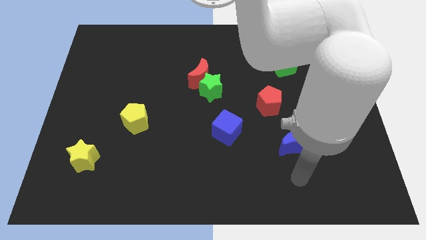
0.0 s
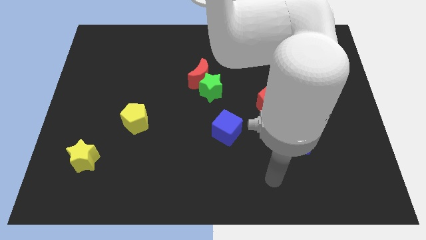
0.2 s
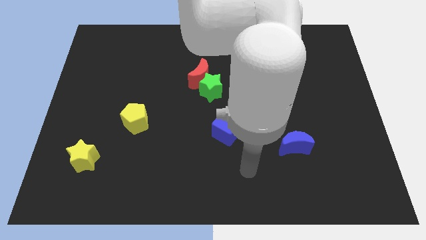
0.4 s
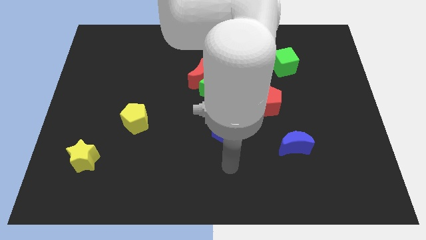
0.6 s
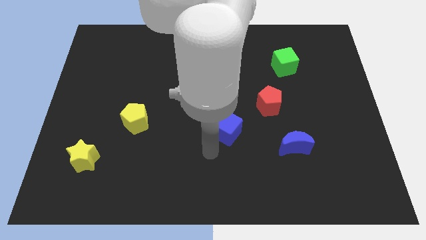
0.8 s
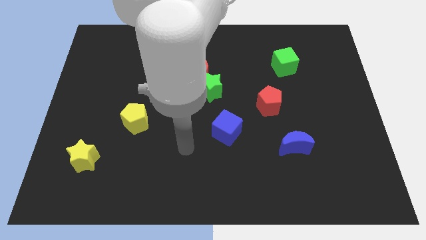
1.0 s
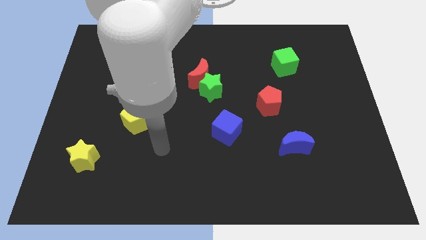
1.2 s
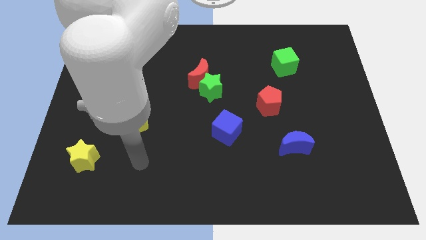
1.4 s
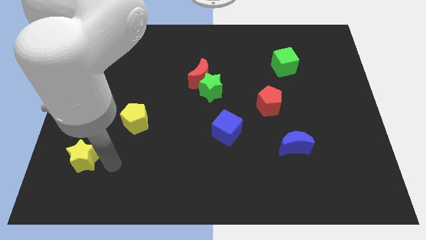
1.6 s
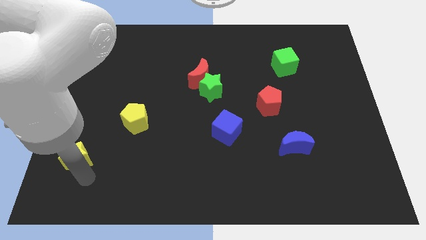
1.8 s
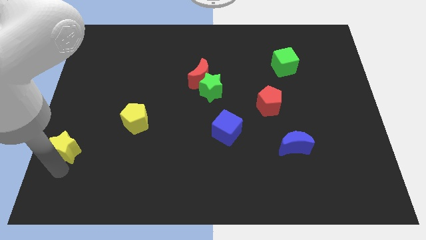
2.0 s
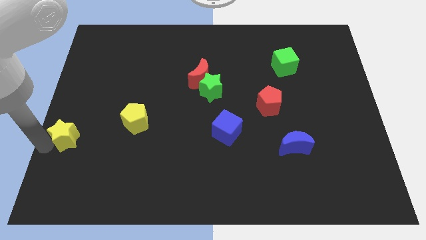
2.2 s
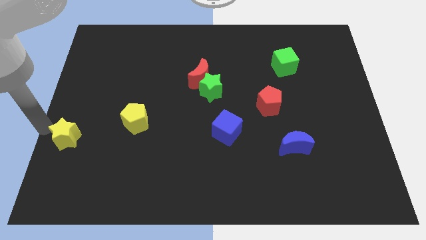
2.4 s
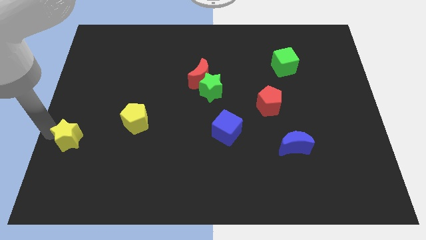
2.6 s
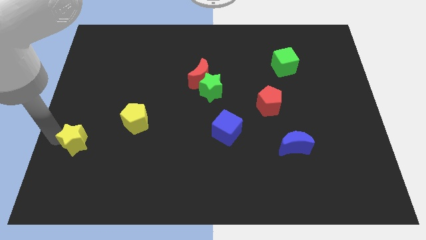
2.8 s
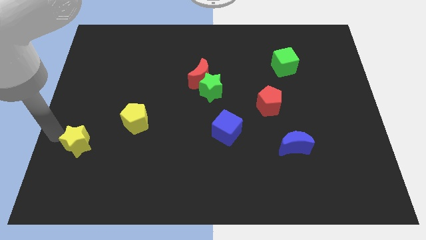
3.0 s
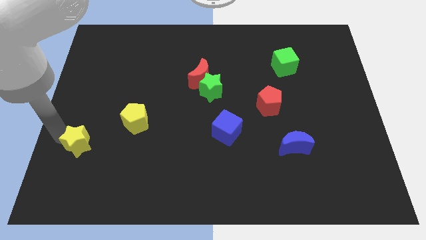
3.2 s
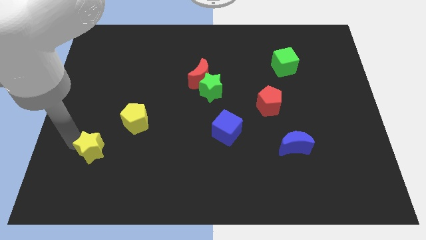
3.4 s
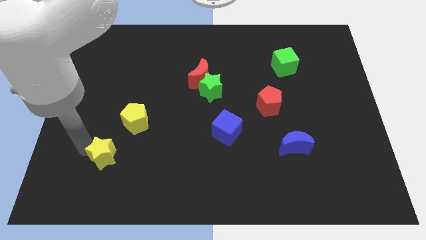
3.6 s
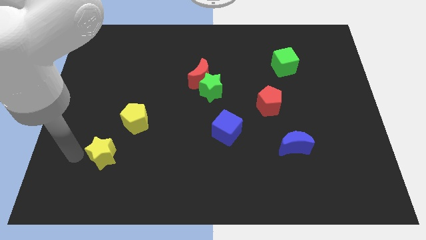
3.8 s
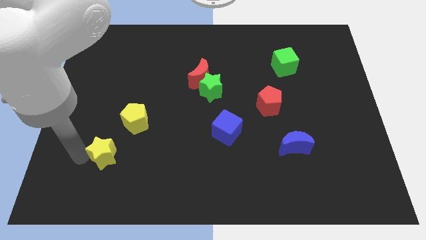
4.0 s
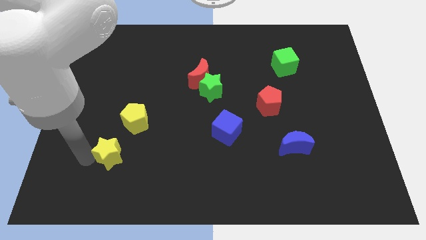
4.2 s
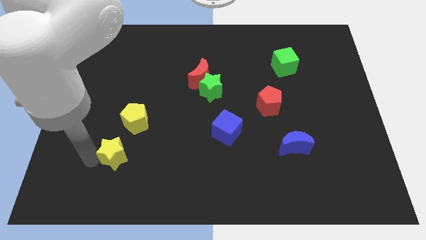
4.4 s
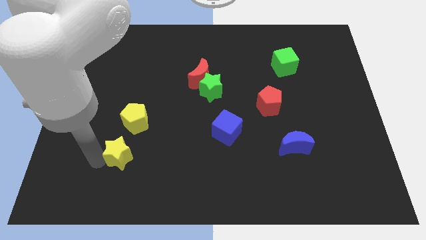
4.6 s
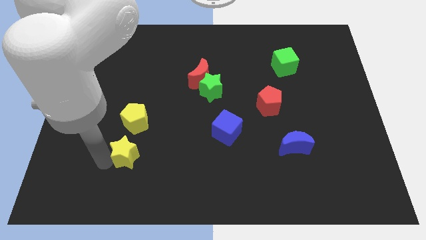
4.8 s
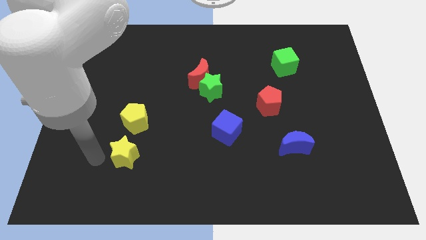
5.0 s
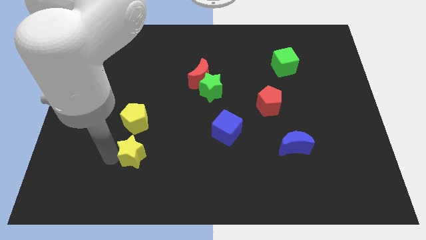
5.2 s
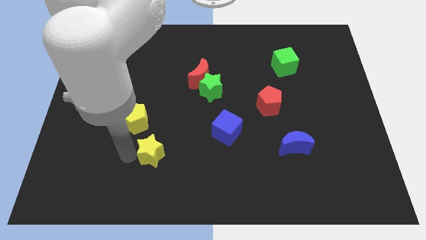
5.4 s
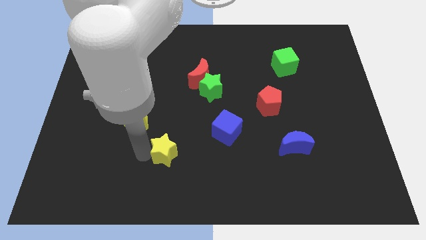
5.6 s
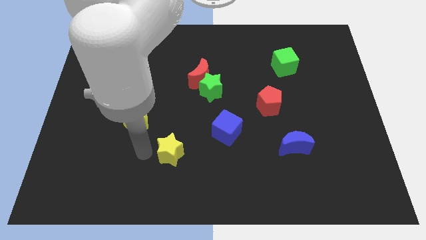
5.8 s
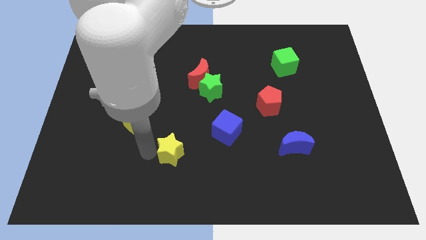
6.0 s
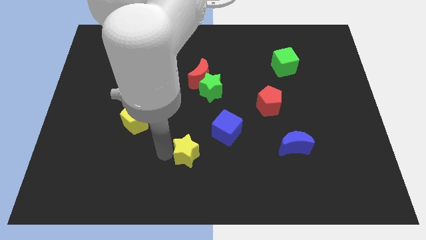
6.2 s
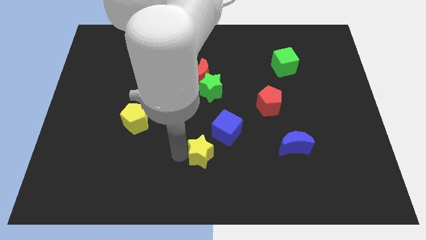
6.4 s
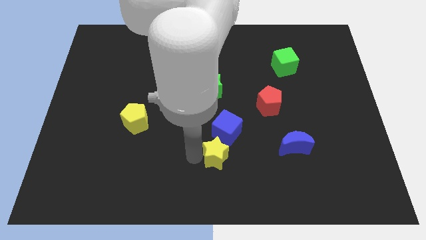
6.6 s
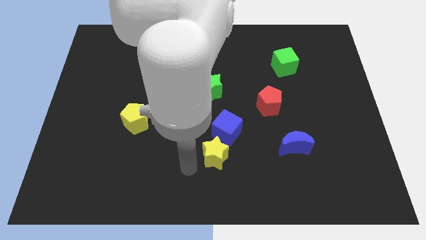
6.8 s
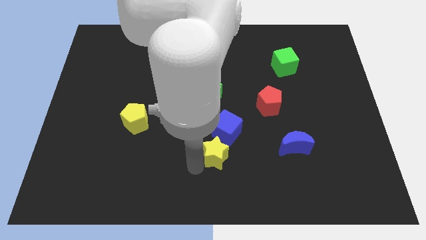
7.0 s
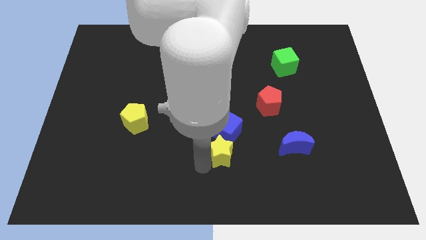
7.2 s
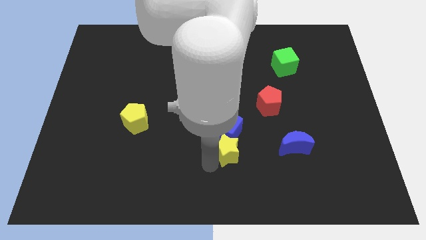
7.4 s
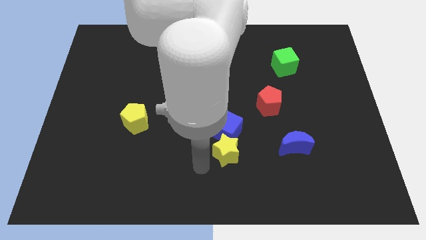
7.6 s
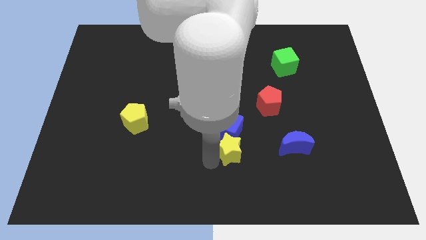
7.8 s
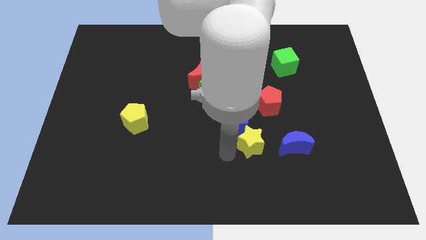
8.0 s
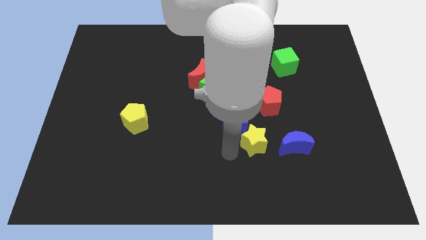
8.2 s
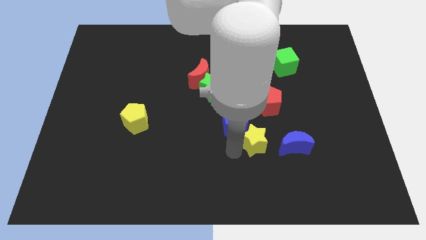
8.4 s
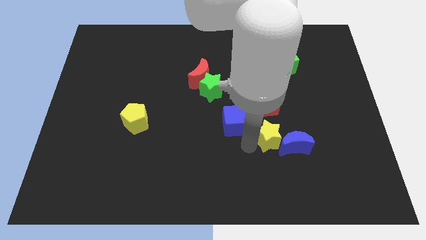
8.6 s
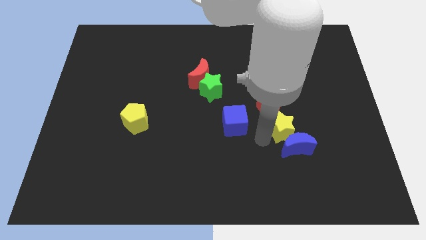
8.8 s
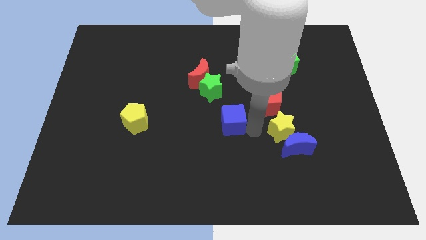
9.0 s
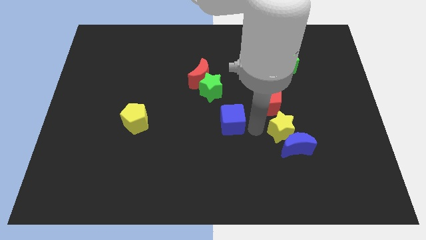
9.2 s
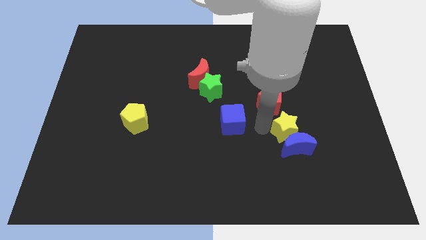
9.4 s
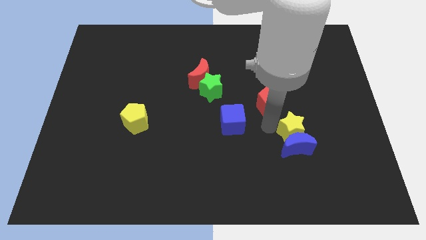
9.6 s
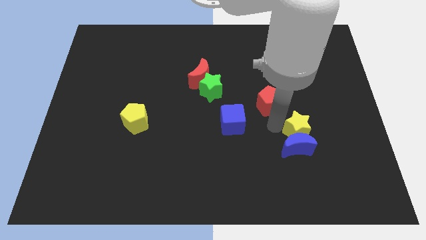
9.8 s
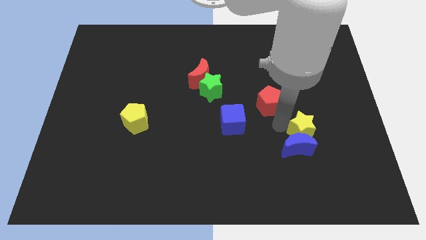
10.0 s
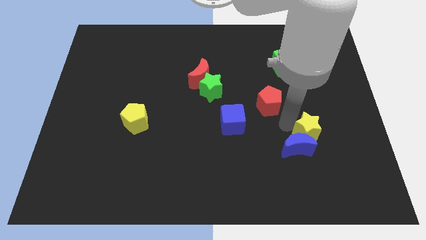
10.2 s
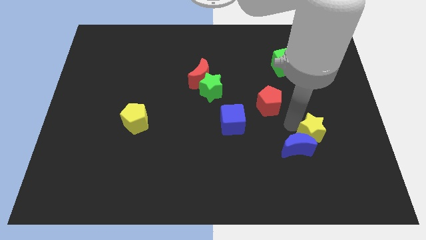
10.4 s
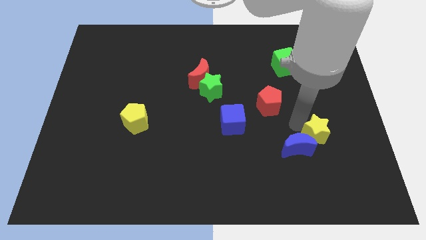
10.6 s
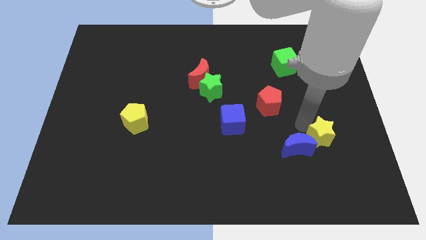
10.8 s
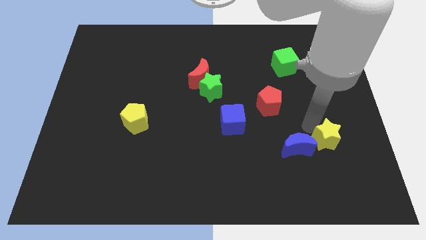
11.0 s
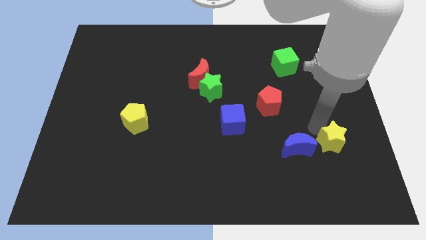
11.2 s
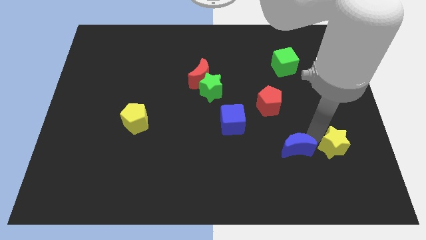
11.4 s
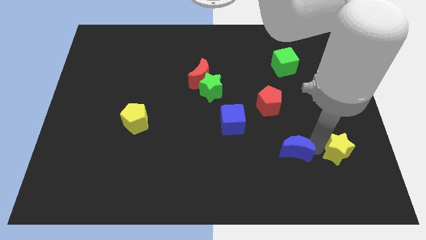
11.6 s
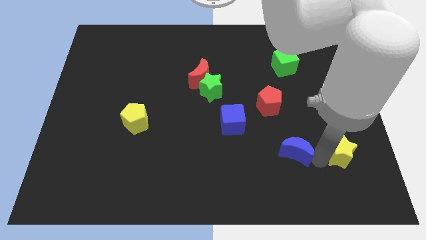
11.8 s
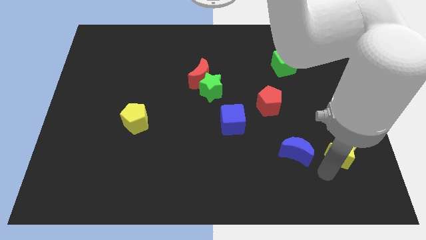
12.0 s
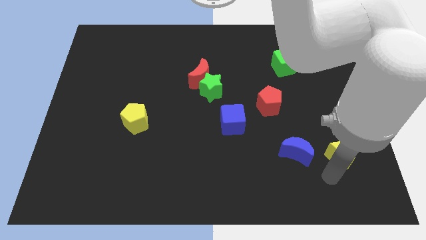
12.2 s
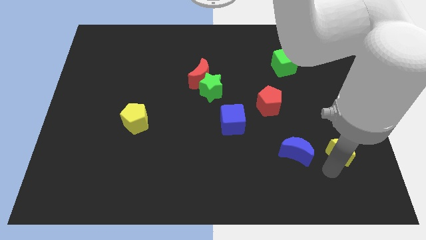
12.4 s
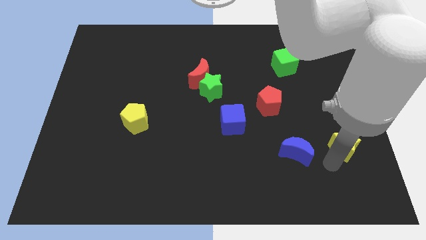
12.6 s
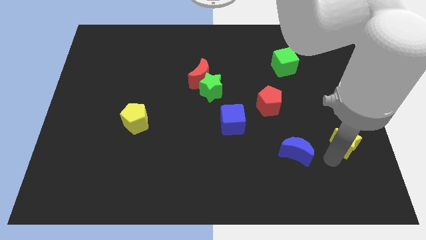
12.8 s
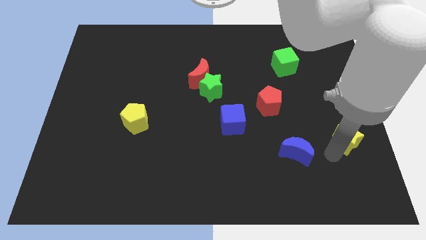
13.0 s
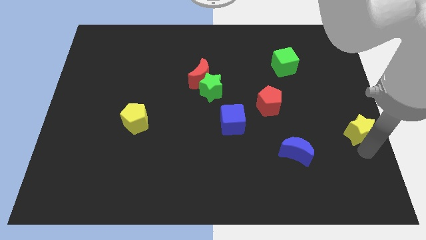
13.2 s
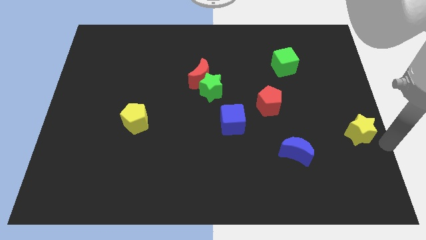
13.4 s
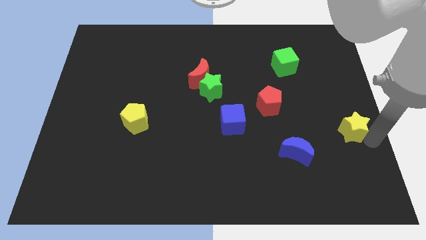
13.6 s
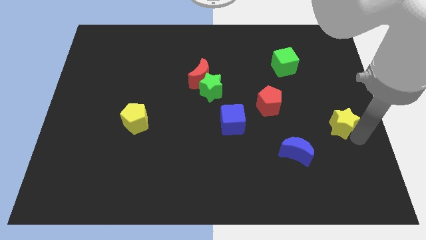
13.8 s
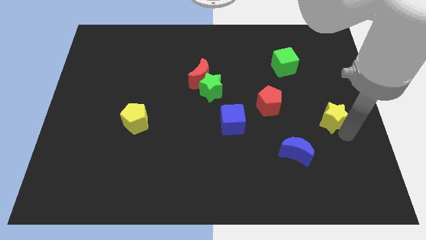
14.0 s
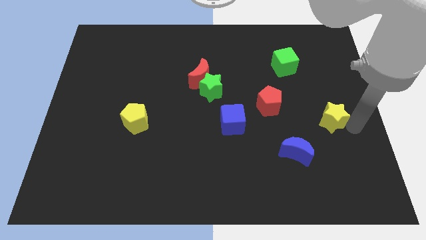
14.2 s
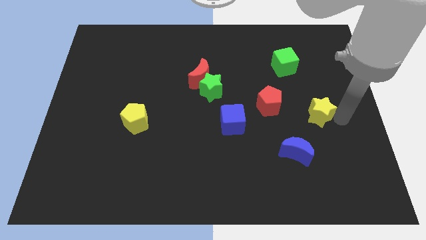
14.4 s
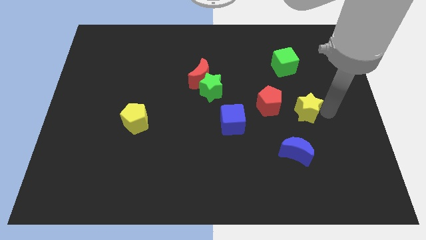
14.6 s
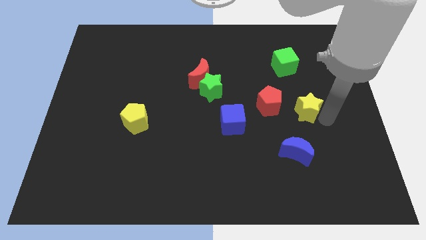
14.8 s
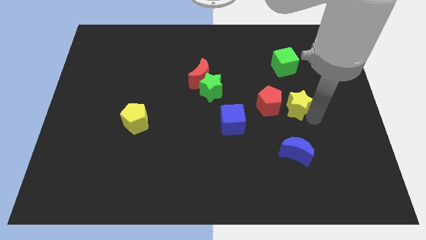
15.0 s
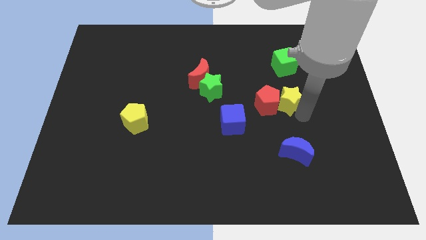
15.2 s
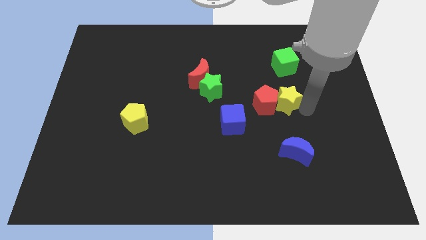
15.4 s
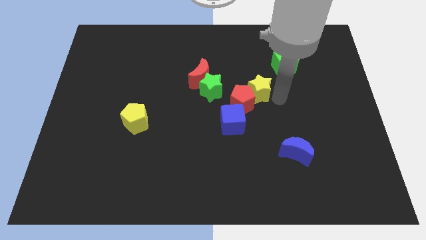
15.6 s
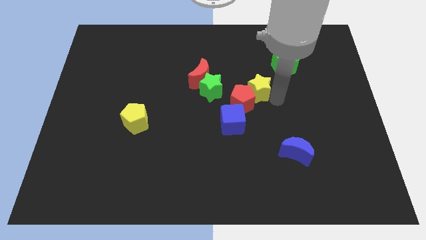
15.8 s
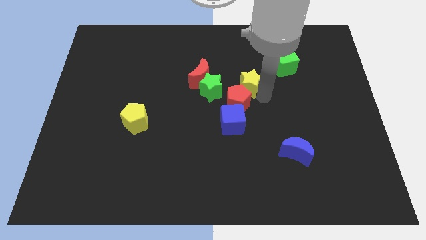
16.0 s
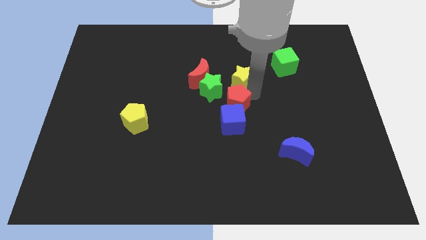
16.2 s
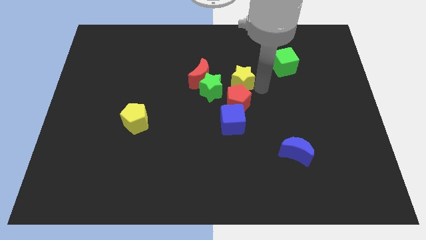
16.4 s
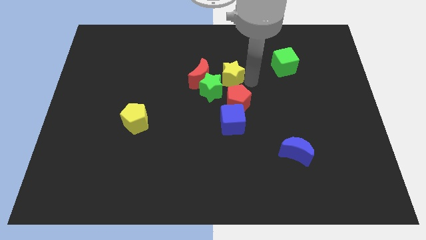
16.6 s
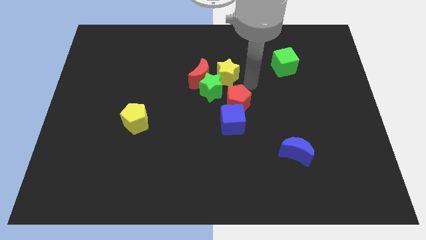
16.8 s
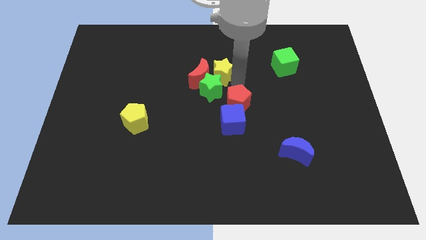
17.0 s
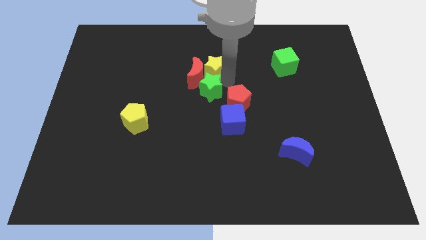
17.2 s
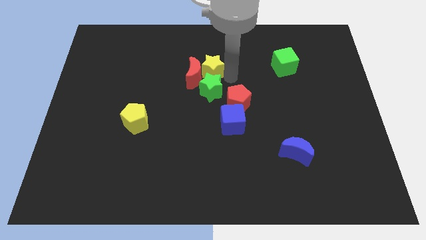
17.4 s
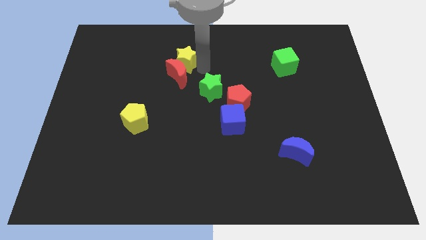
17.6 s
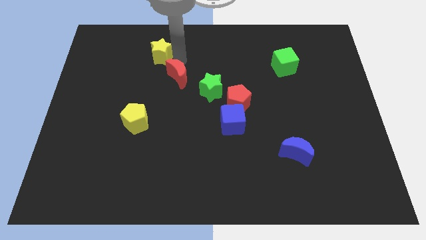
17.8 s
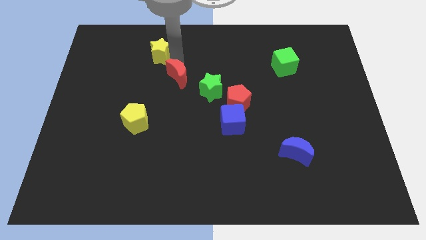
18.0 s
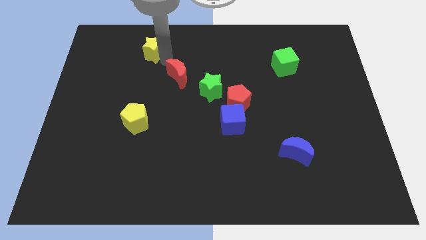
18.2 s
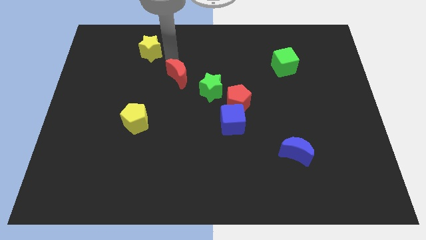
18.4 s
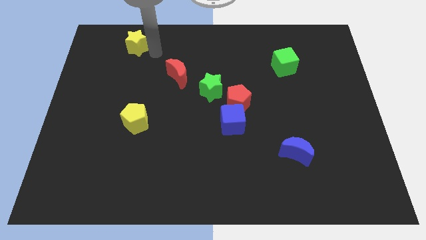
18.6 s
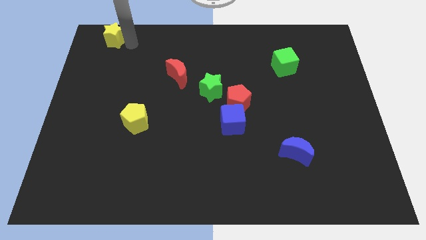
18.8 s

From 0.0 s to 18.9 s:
move the yellow star to the top left of the board
